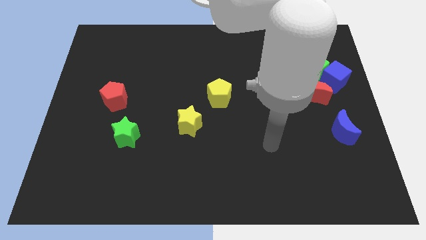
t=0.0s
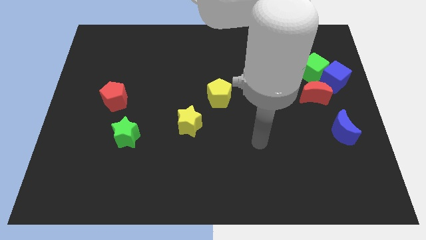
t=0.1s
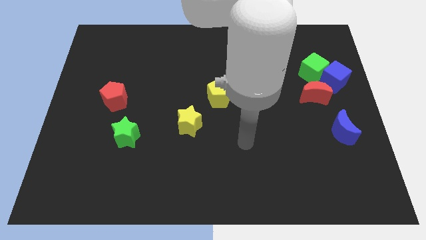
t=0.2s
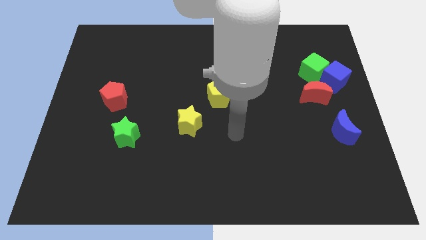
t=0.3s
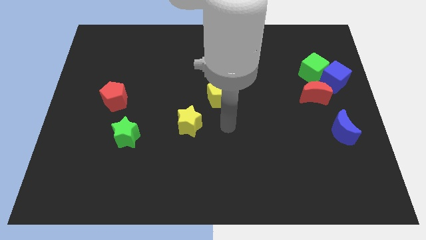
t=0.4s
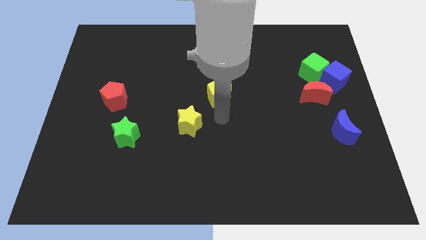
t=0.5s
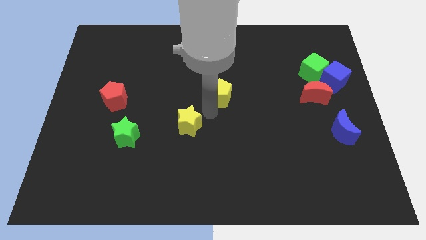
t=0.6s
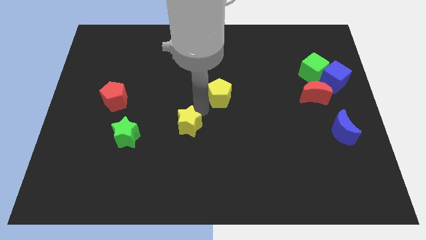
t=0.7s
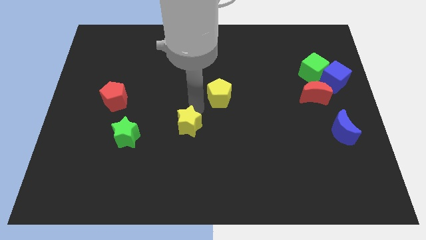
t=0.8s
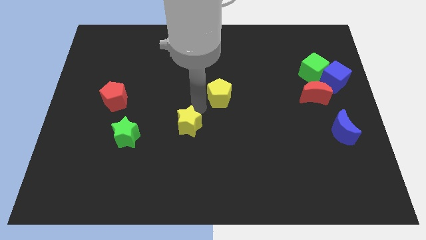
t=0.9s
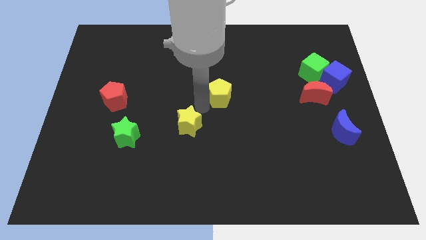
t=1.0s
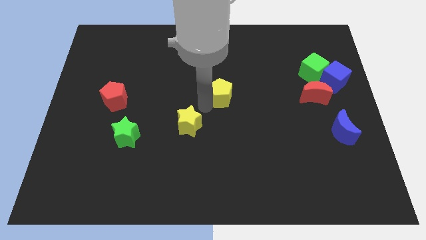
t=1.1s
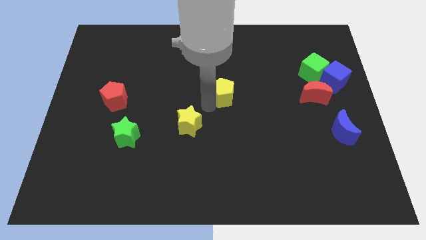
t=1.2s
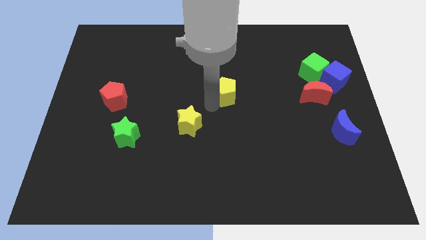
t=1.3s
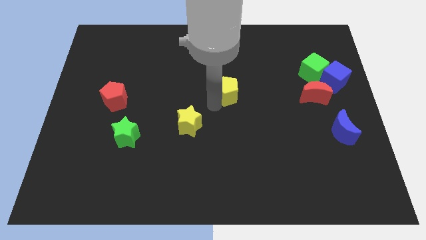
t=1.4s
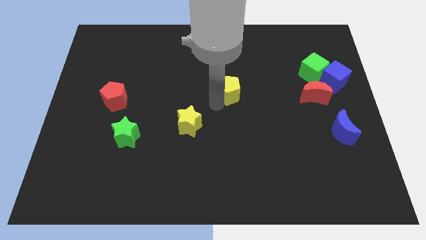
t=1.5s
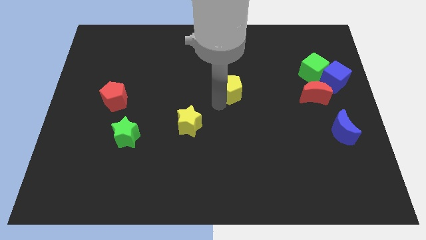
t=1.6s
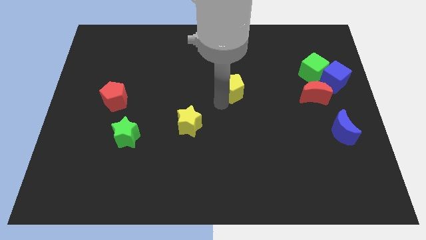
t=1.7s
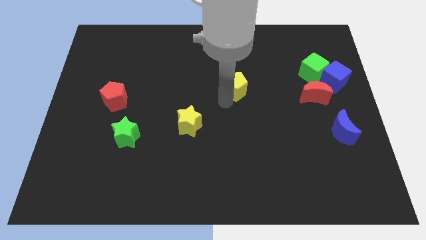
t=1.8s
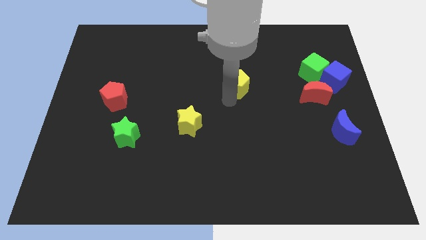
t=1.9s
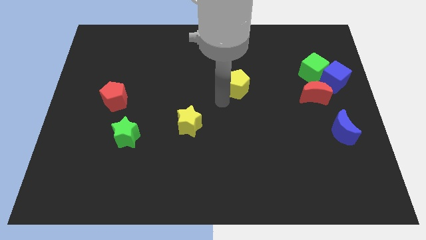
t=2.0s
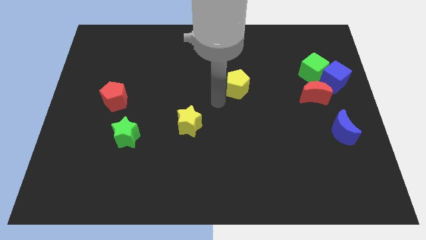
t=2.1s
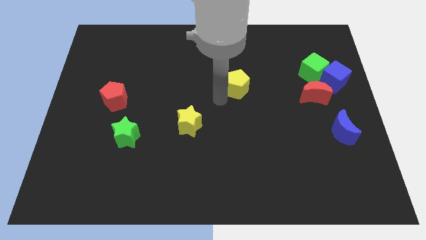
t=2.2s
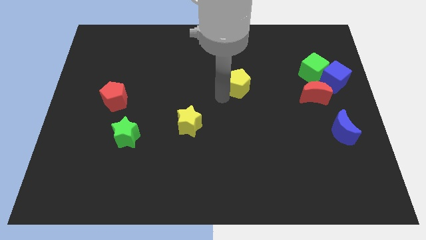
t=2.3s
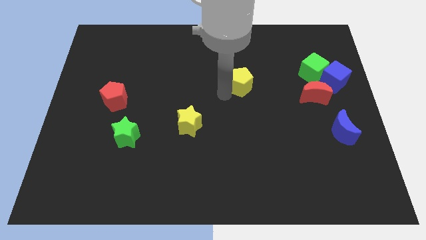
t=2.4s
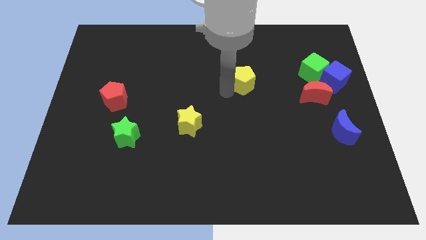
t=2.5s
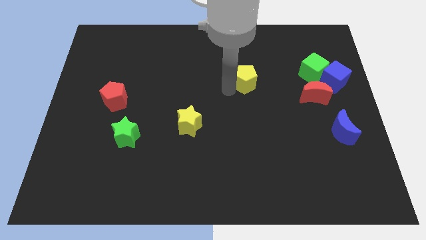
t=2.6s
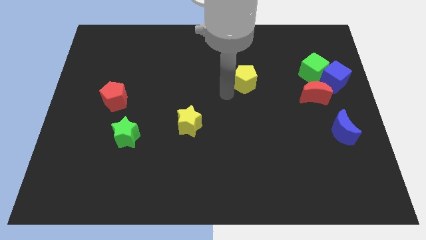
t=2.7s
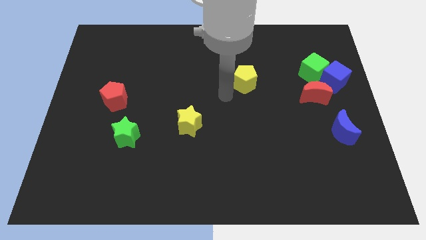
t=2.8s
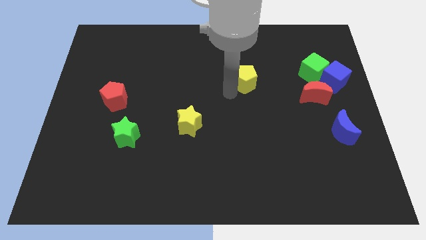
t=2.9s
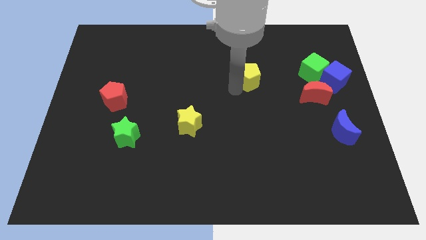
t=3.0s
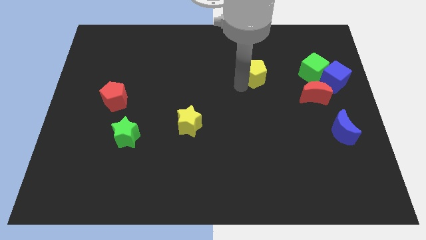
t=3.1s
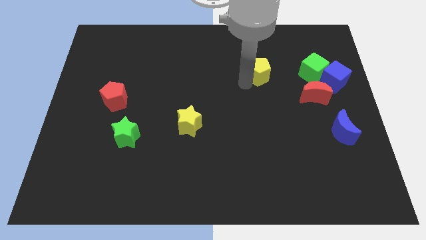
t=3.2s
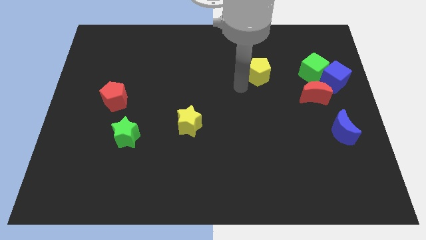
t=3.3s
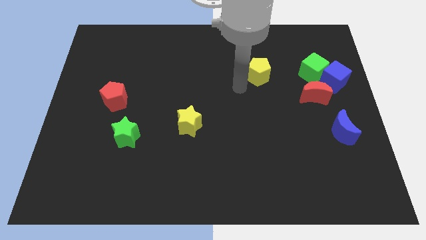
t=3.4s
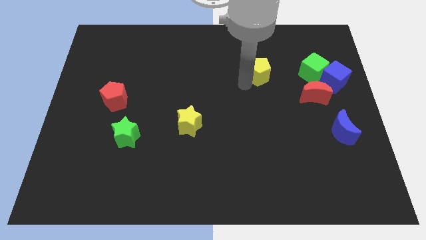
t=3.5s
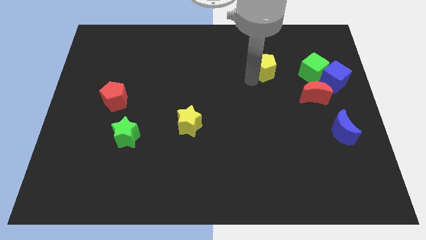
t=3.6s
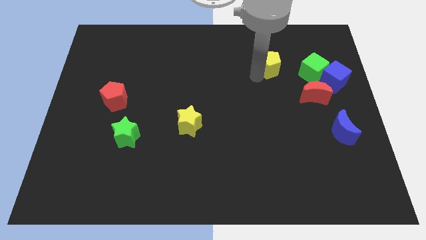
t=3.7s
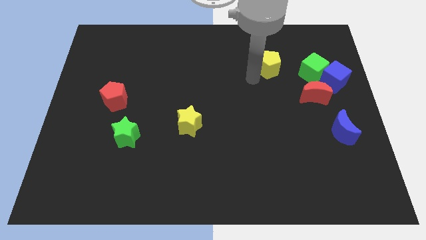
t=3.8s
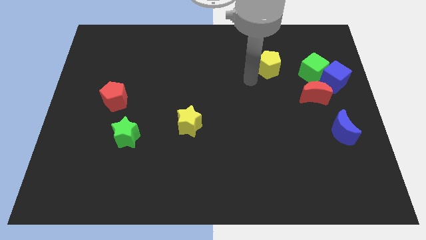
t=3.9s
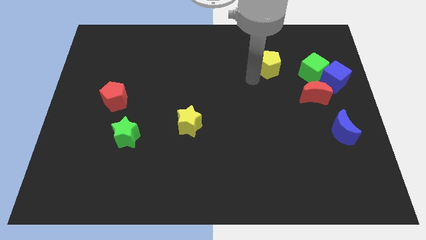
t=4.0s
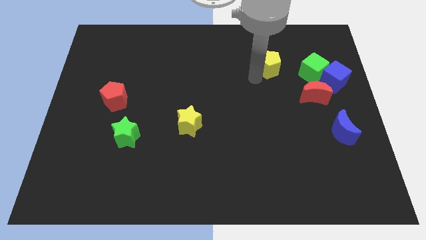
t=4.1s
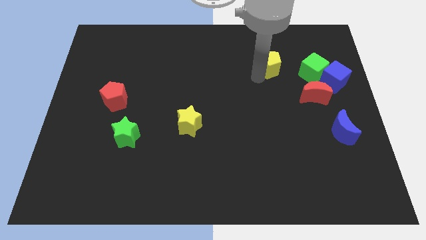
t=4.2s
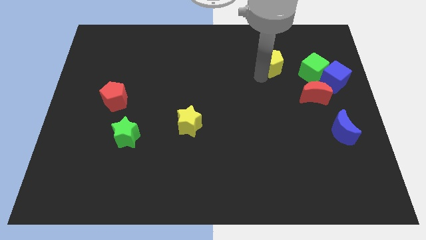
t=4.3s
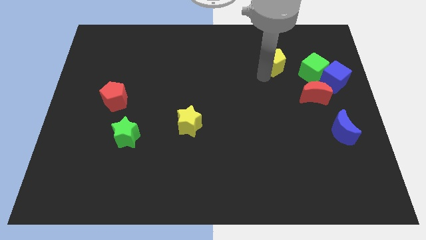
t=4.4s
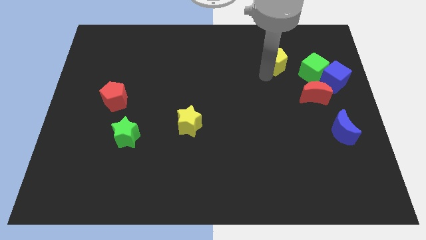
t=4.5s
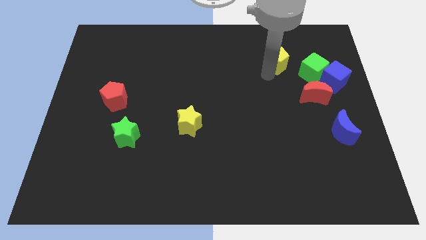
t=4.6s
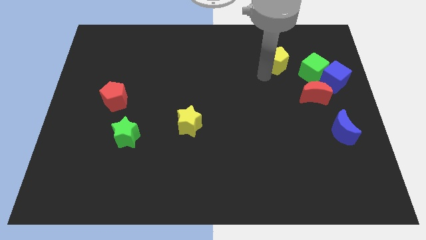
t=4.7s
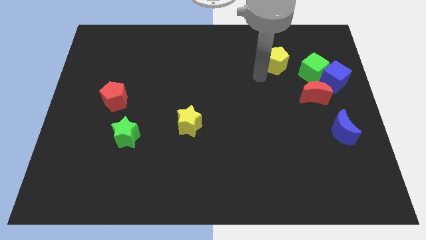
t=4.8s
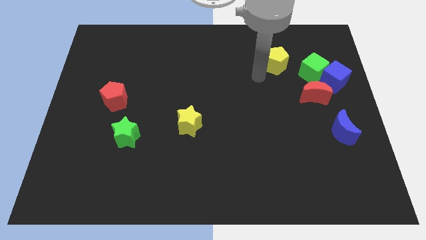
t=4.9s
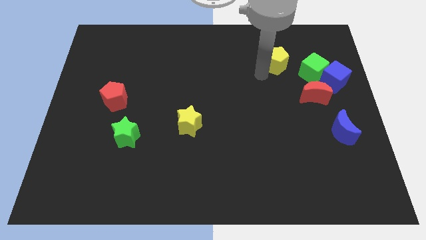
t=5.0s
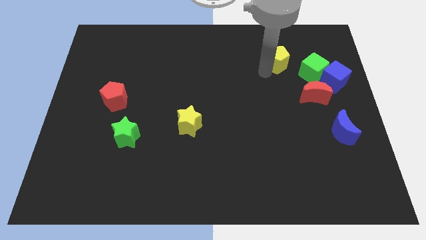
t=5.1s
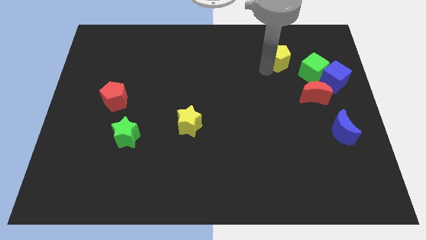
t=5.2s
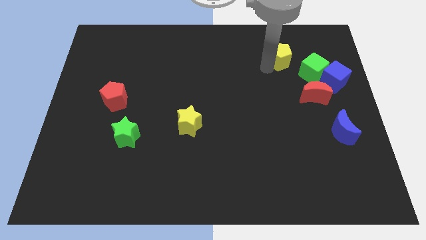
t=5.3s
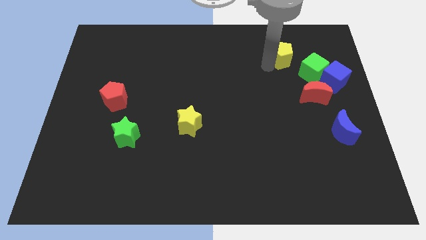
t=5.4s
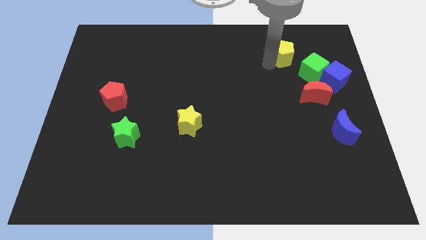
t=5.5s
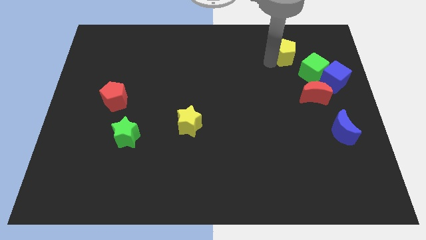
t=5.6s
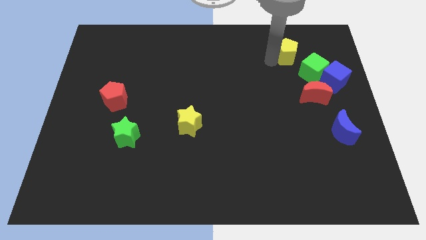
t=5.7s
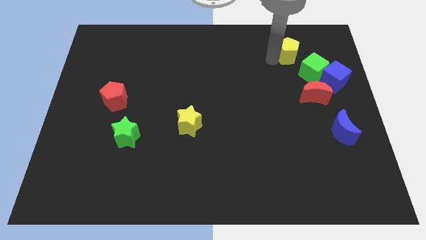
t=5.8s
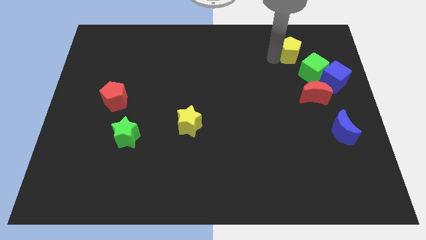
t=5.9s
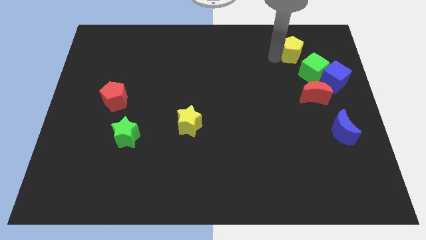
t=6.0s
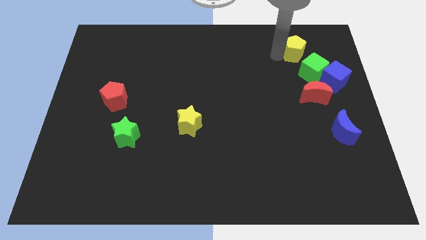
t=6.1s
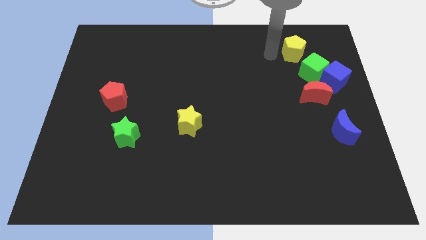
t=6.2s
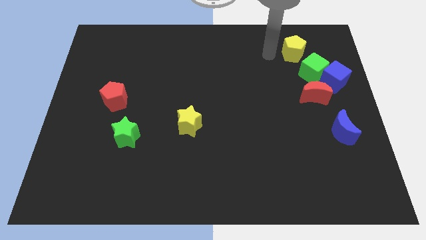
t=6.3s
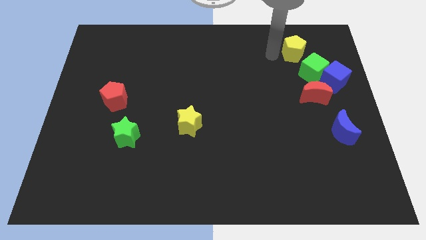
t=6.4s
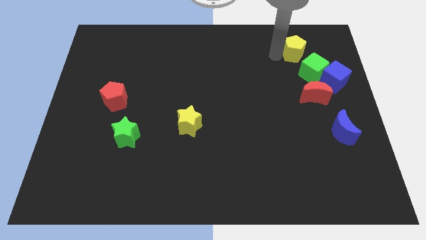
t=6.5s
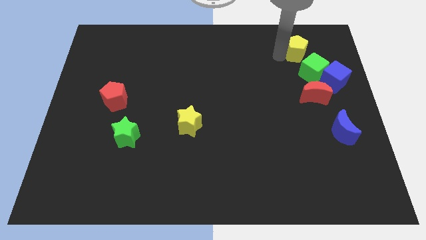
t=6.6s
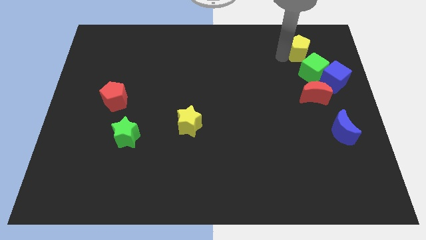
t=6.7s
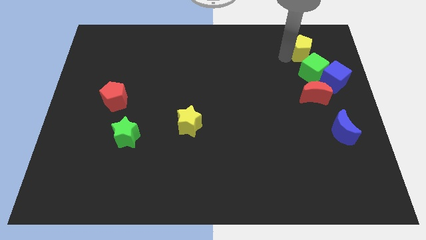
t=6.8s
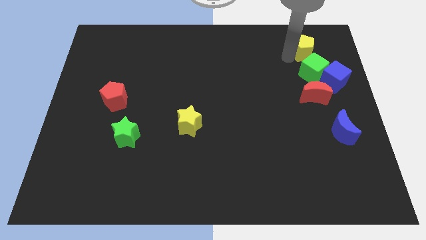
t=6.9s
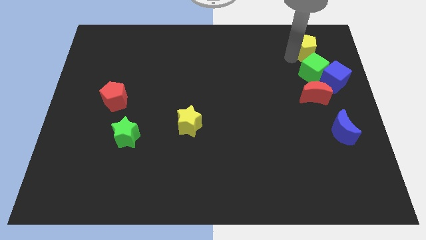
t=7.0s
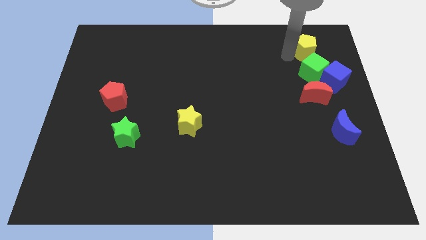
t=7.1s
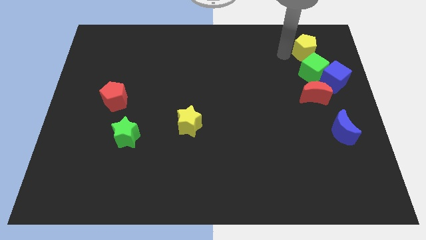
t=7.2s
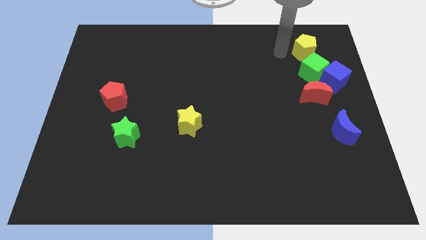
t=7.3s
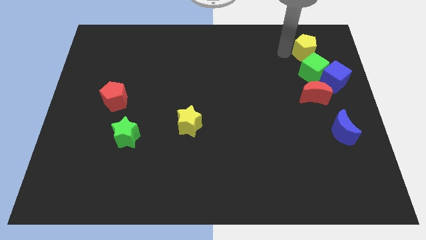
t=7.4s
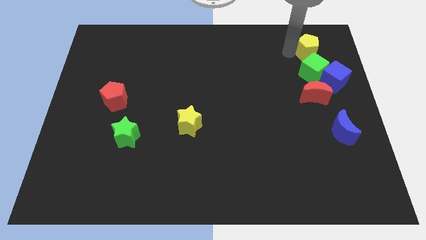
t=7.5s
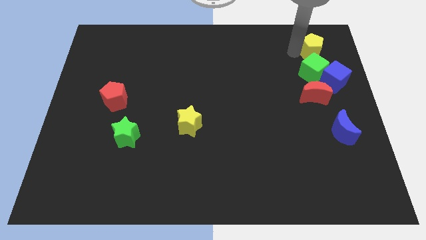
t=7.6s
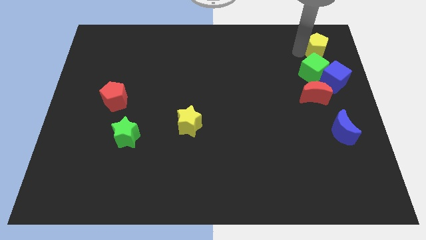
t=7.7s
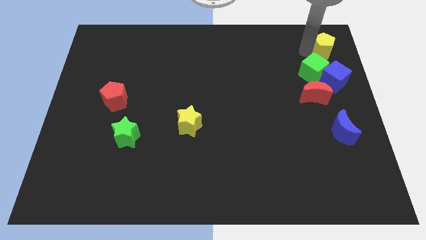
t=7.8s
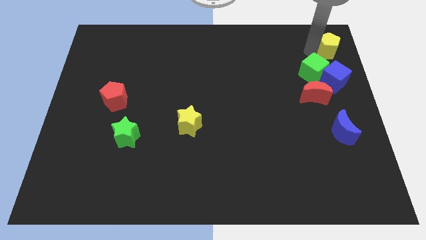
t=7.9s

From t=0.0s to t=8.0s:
put the yellow pentagon to the upper right corner
